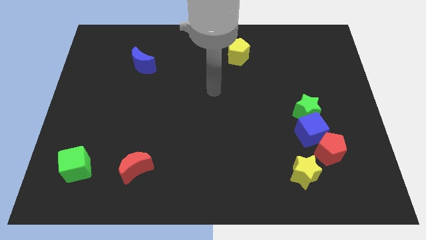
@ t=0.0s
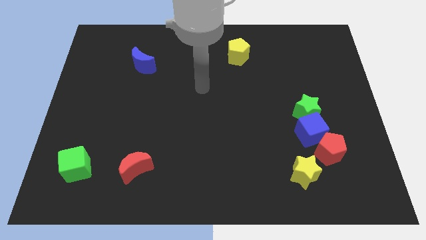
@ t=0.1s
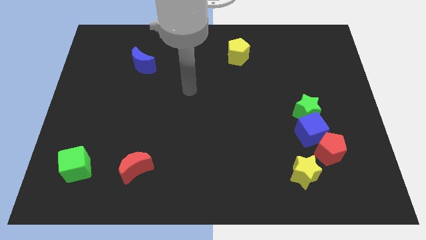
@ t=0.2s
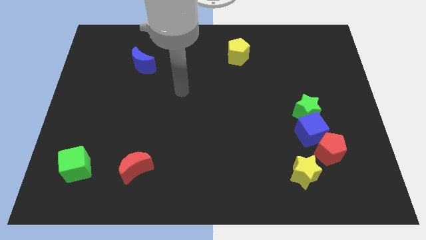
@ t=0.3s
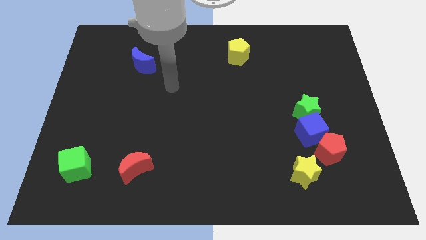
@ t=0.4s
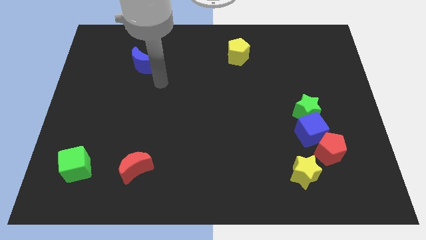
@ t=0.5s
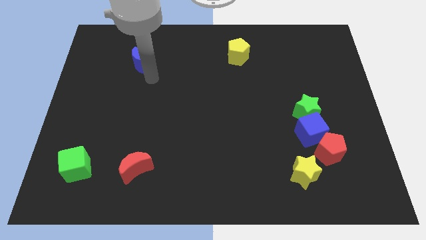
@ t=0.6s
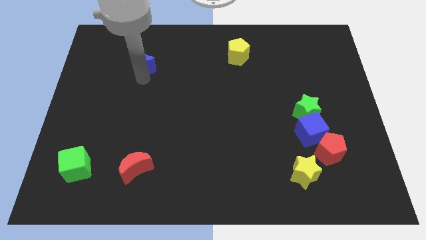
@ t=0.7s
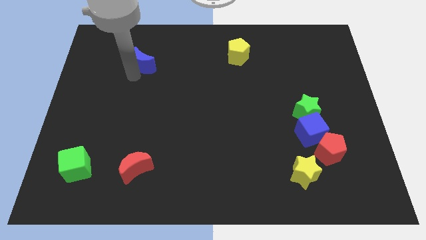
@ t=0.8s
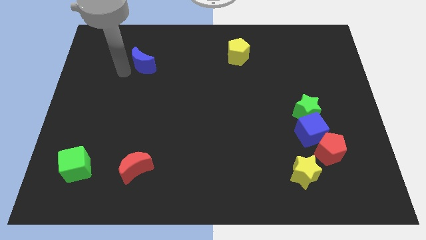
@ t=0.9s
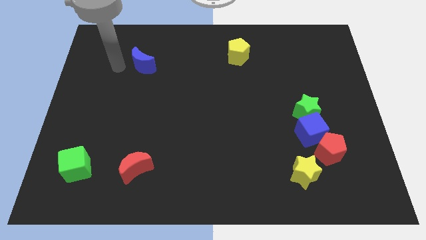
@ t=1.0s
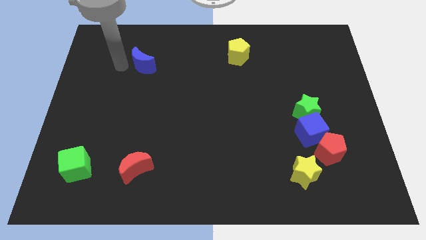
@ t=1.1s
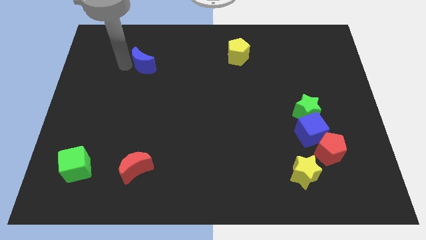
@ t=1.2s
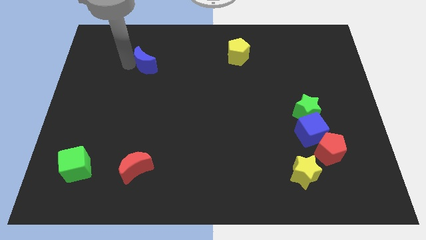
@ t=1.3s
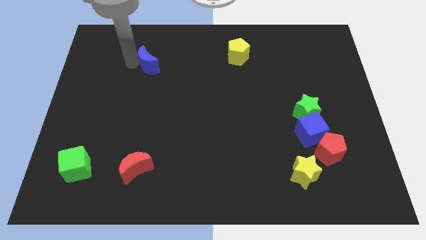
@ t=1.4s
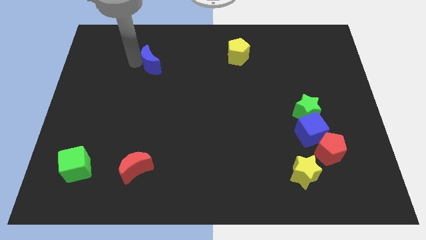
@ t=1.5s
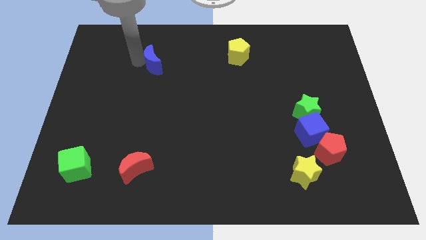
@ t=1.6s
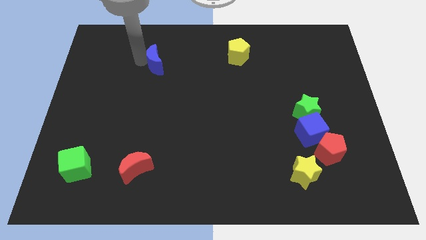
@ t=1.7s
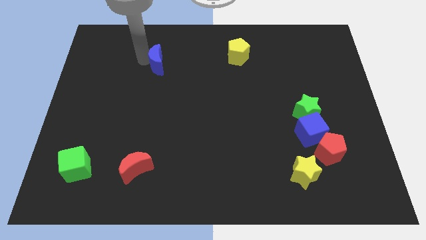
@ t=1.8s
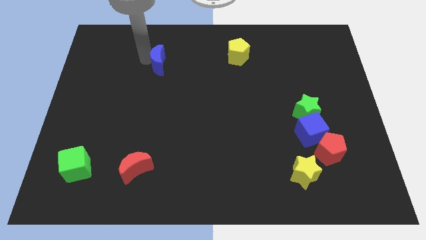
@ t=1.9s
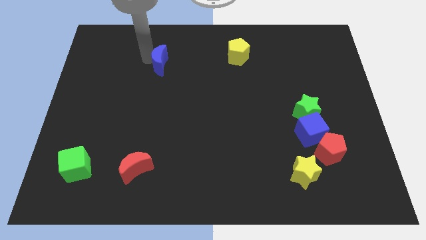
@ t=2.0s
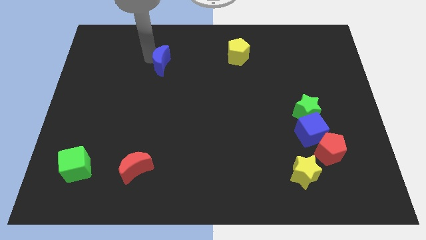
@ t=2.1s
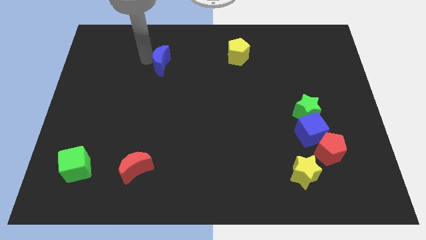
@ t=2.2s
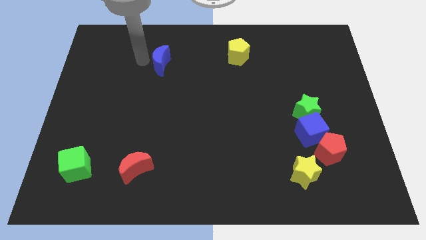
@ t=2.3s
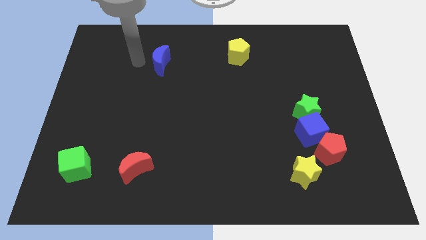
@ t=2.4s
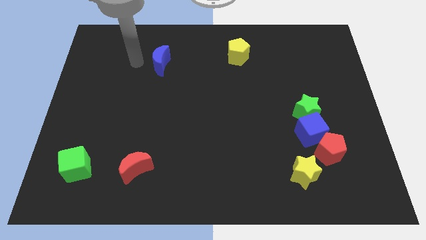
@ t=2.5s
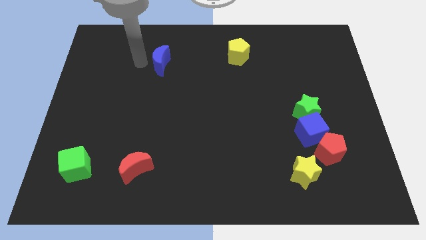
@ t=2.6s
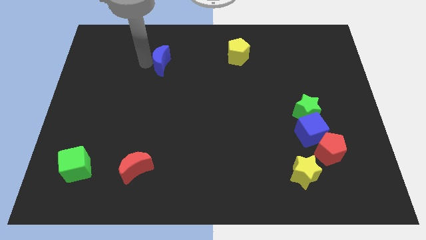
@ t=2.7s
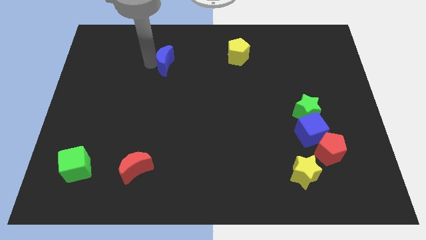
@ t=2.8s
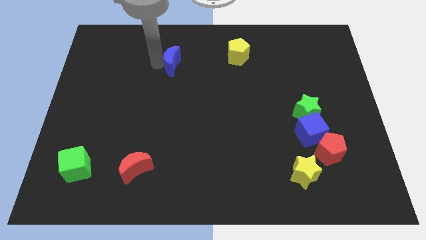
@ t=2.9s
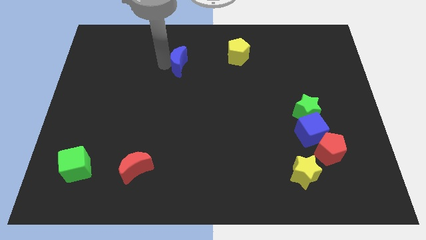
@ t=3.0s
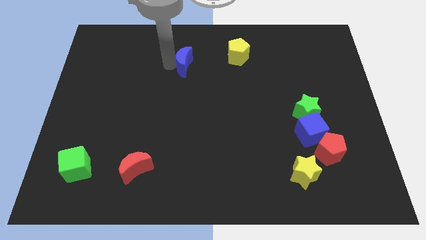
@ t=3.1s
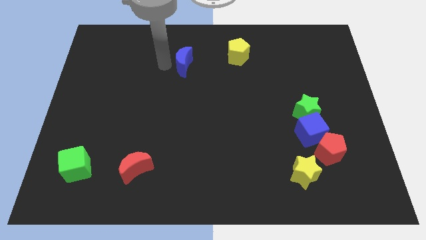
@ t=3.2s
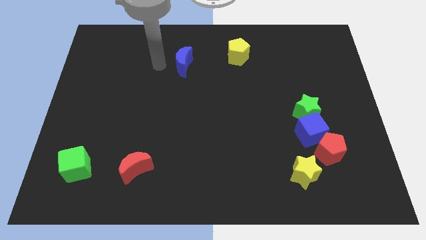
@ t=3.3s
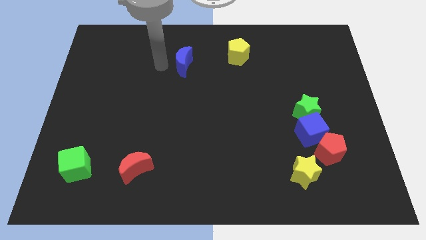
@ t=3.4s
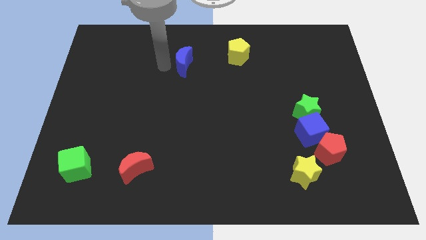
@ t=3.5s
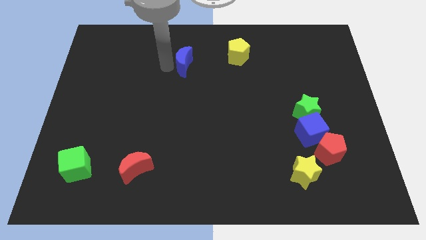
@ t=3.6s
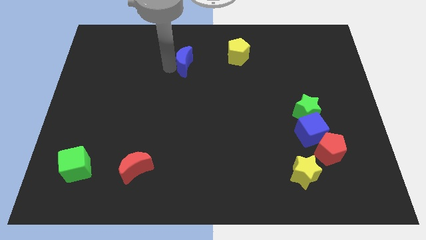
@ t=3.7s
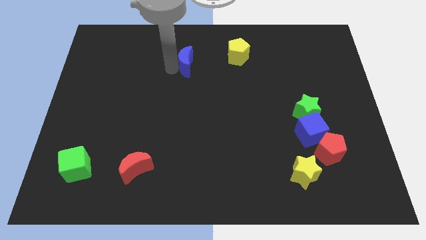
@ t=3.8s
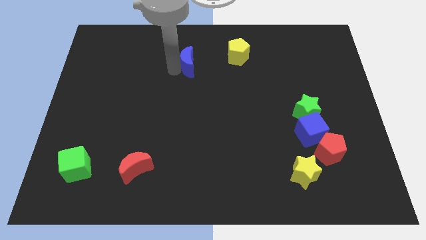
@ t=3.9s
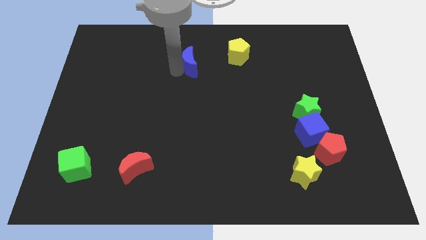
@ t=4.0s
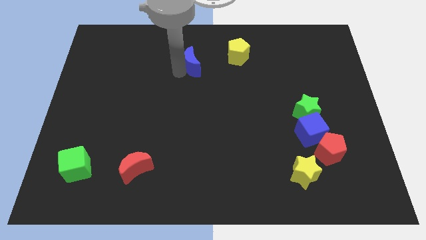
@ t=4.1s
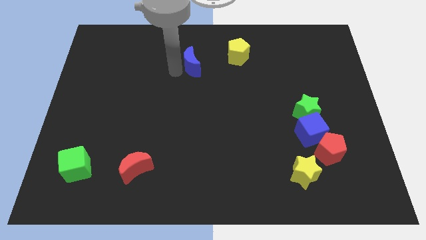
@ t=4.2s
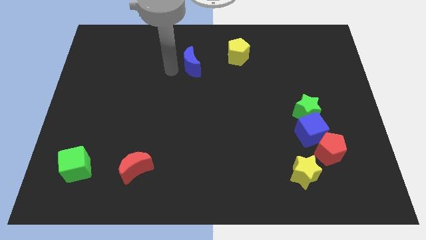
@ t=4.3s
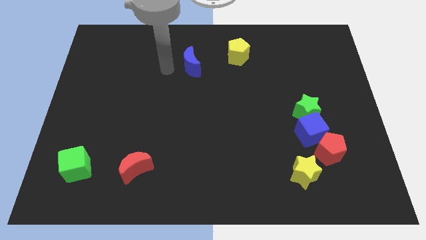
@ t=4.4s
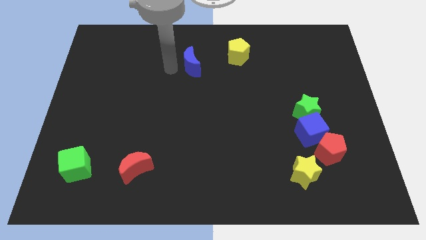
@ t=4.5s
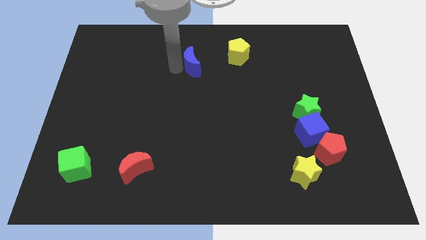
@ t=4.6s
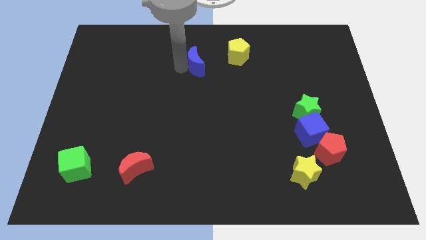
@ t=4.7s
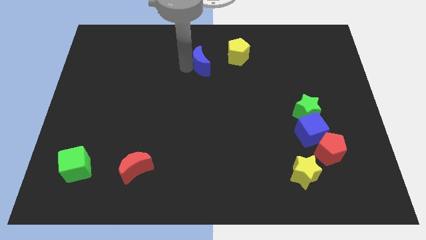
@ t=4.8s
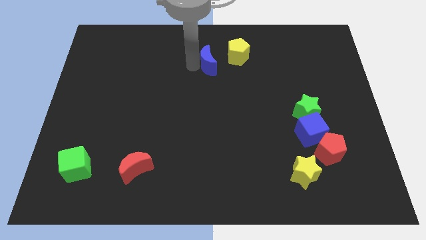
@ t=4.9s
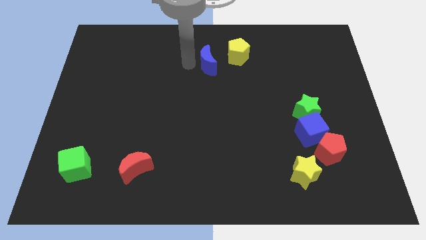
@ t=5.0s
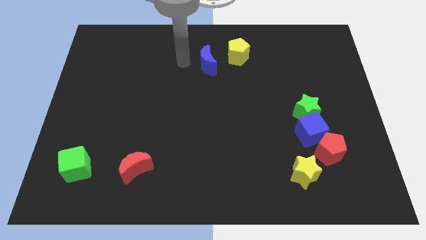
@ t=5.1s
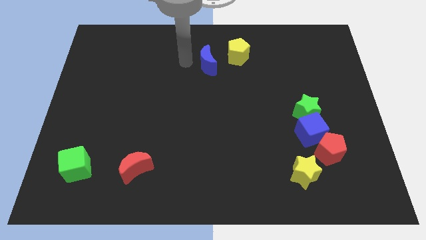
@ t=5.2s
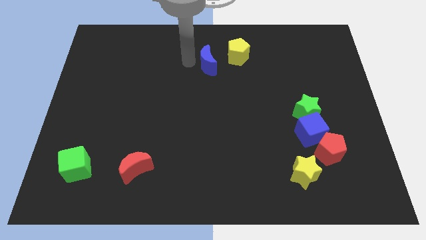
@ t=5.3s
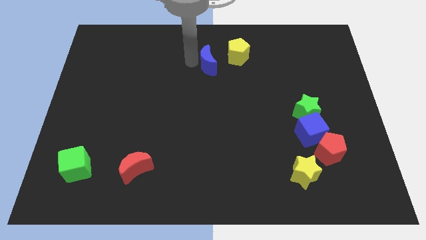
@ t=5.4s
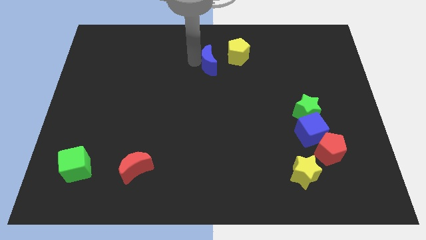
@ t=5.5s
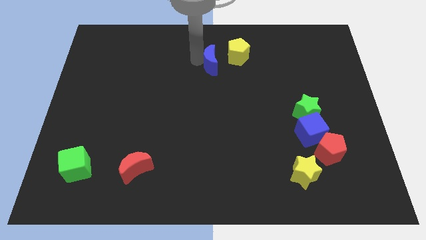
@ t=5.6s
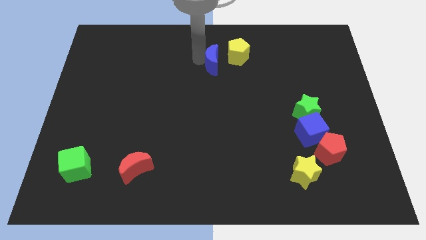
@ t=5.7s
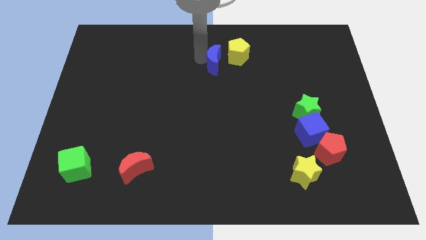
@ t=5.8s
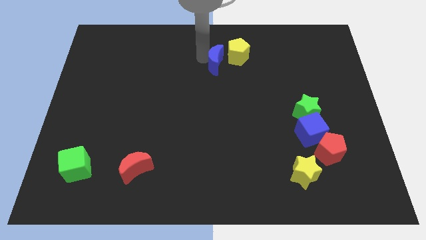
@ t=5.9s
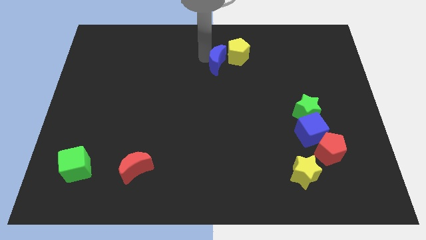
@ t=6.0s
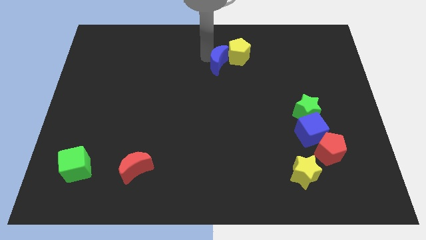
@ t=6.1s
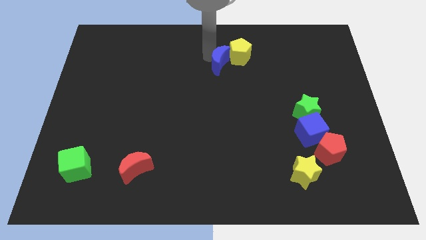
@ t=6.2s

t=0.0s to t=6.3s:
slide the blue moon to the right

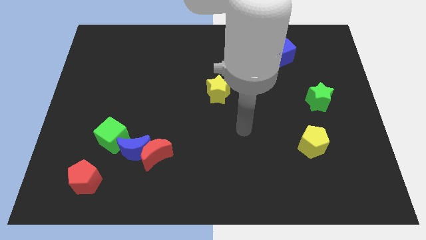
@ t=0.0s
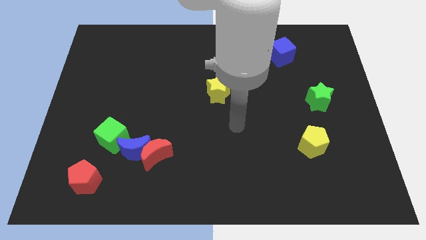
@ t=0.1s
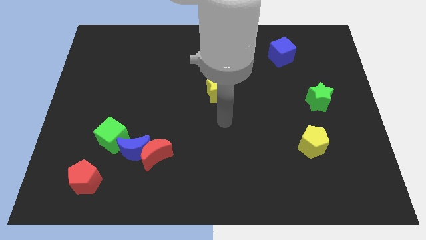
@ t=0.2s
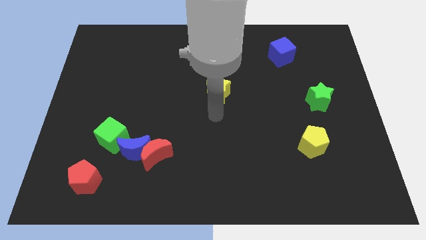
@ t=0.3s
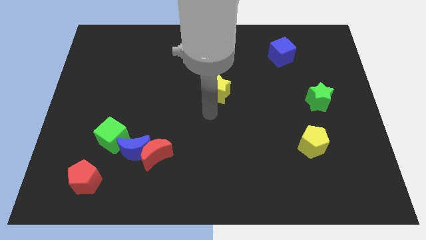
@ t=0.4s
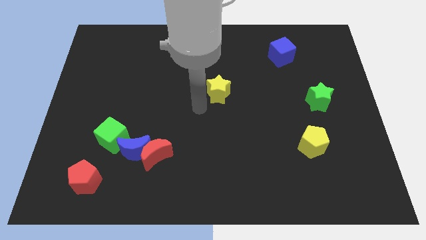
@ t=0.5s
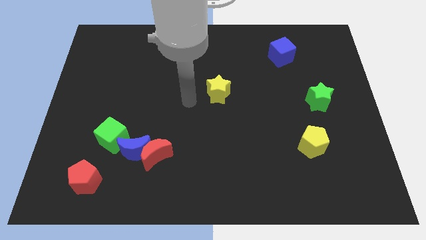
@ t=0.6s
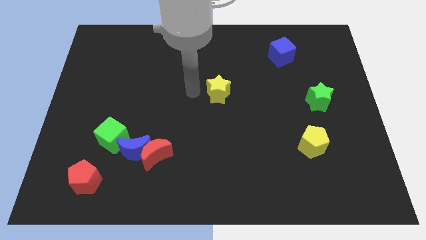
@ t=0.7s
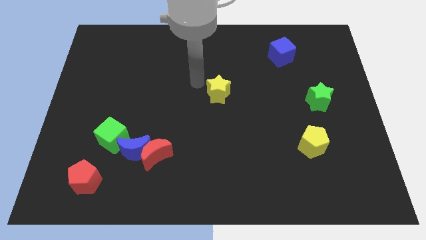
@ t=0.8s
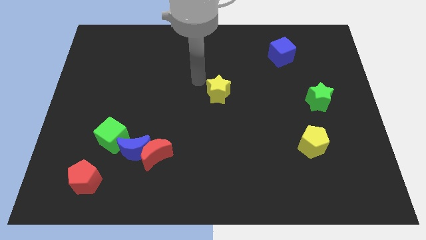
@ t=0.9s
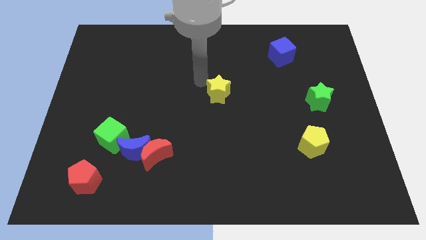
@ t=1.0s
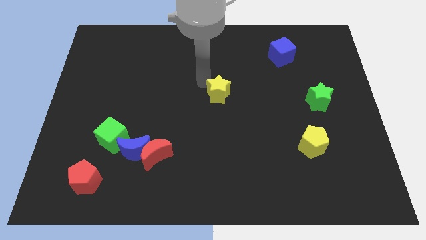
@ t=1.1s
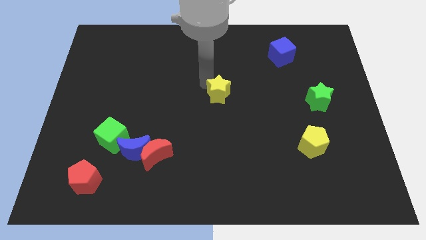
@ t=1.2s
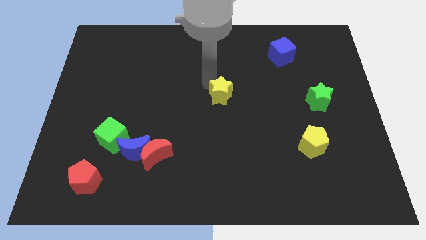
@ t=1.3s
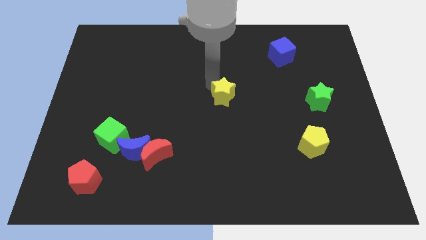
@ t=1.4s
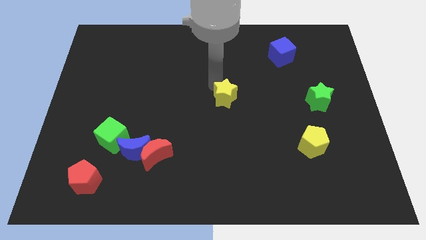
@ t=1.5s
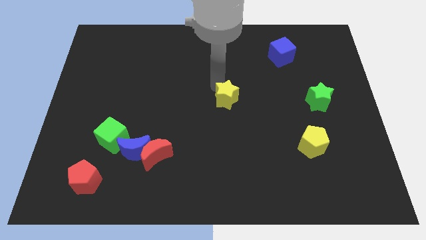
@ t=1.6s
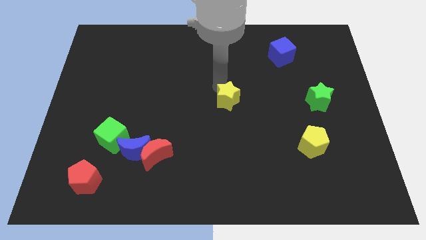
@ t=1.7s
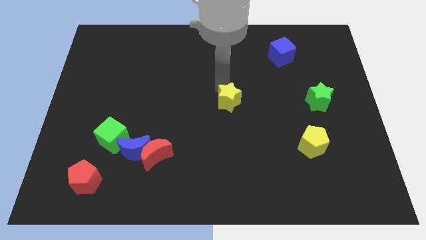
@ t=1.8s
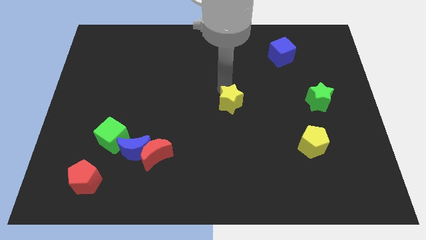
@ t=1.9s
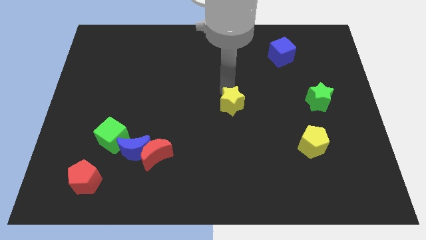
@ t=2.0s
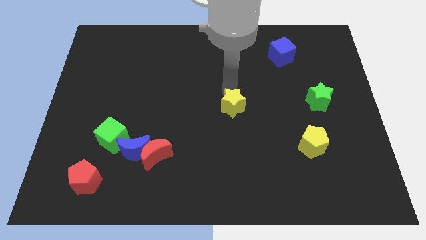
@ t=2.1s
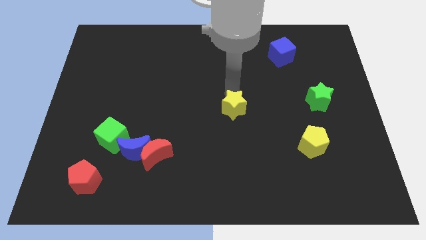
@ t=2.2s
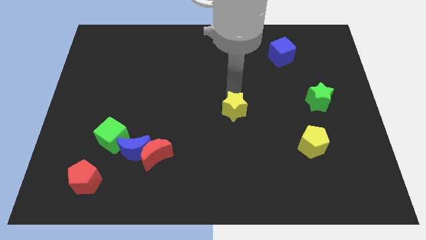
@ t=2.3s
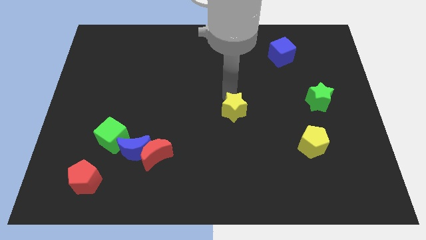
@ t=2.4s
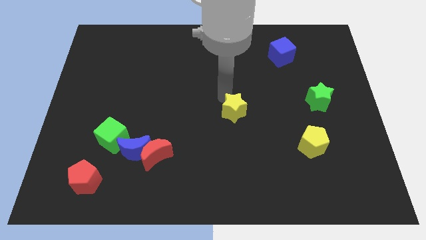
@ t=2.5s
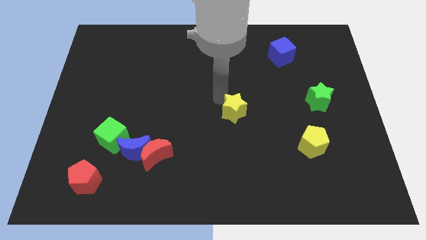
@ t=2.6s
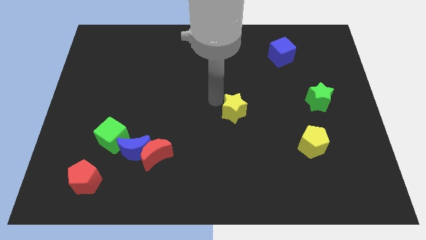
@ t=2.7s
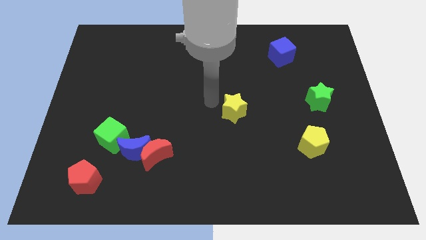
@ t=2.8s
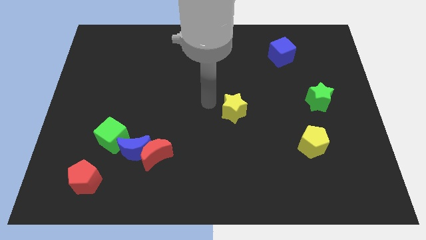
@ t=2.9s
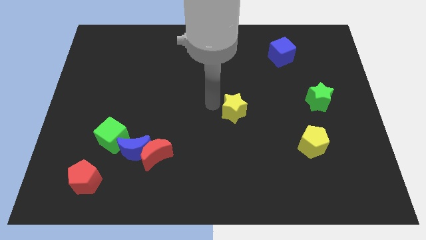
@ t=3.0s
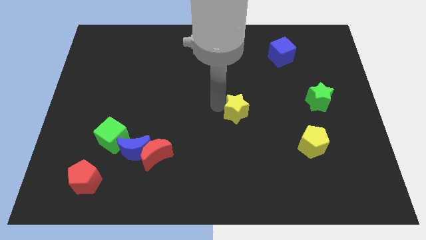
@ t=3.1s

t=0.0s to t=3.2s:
slide the yellow star down and right diagonally a bit
